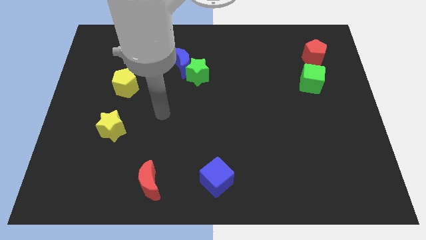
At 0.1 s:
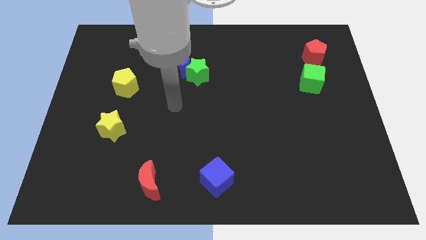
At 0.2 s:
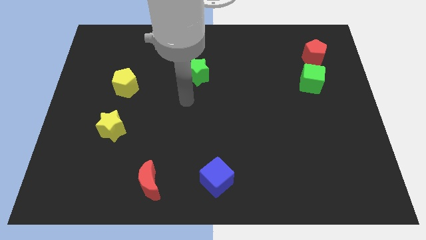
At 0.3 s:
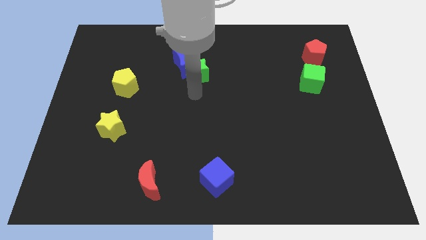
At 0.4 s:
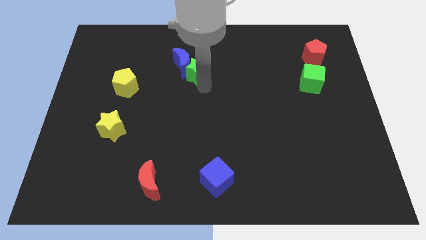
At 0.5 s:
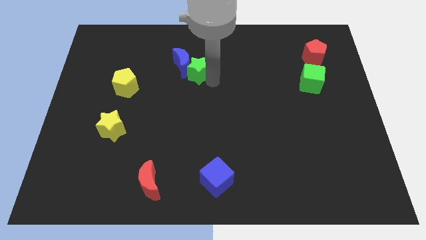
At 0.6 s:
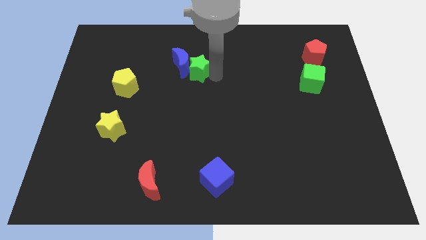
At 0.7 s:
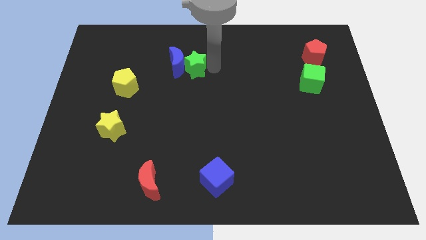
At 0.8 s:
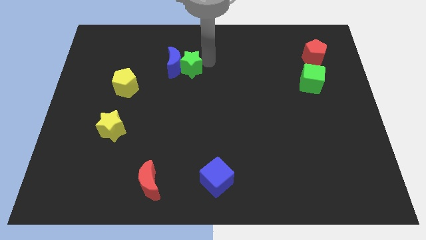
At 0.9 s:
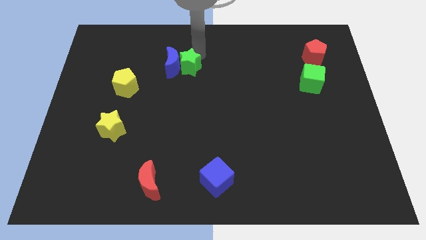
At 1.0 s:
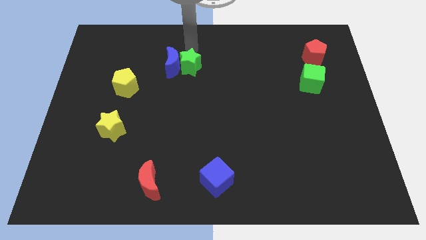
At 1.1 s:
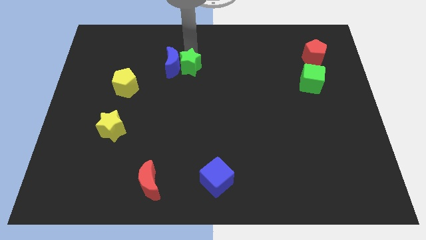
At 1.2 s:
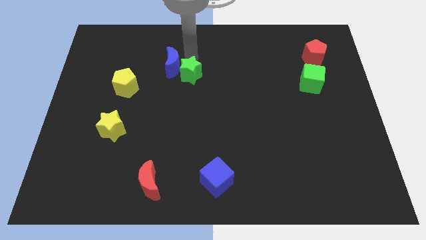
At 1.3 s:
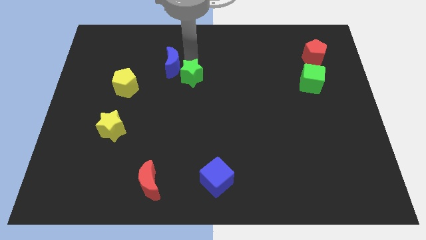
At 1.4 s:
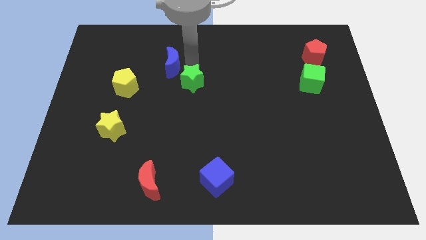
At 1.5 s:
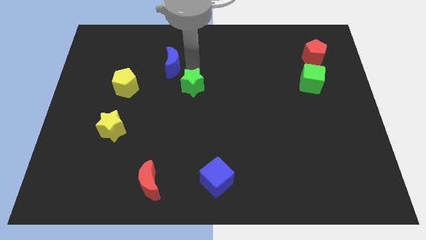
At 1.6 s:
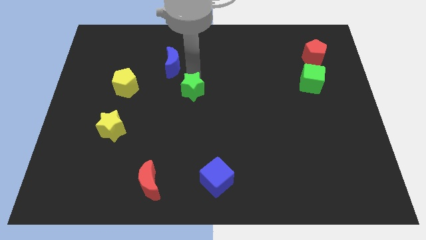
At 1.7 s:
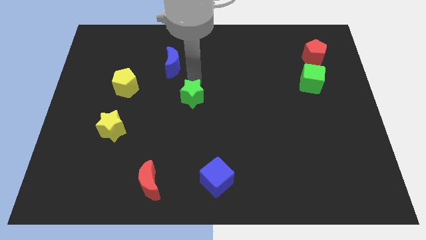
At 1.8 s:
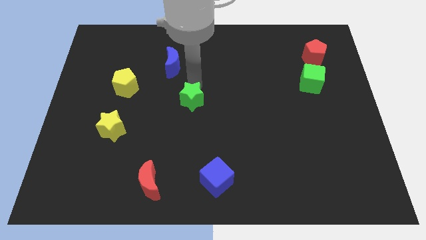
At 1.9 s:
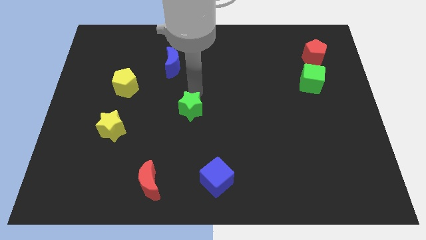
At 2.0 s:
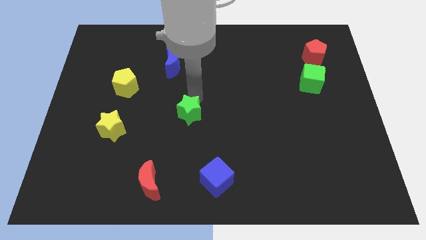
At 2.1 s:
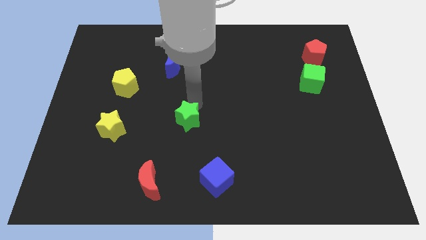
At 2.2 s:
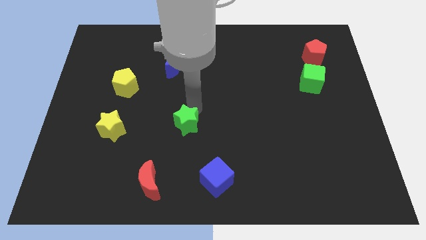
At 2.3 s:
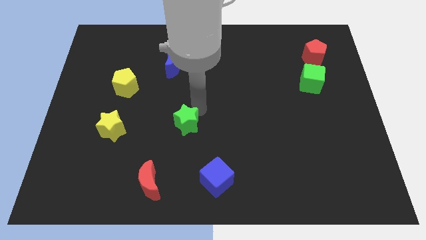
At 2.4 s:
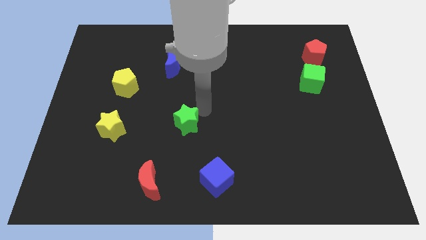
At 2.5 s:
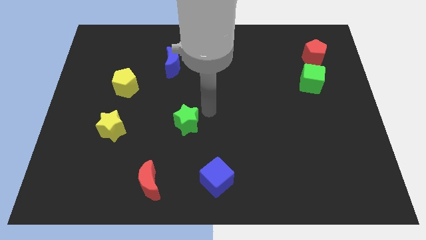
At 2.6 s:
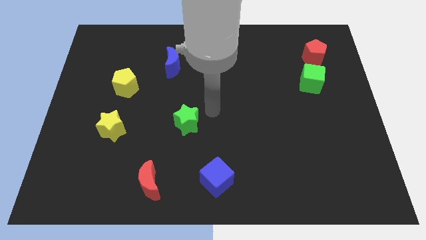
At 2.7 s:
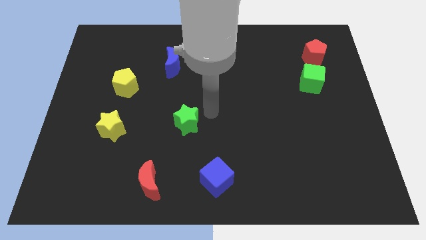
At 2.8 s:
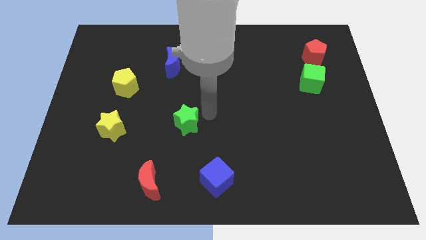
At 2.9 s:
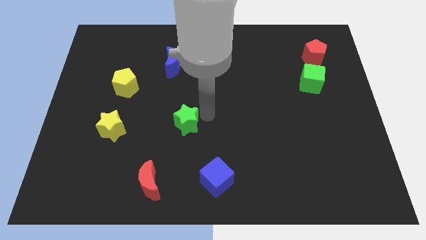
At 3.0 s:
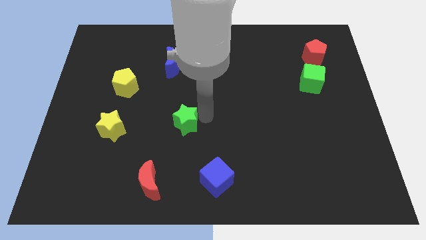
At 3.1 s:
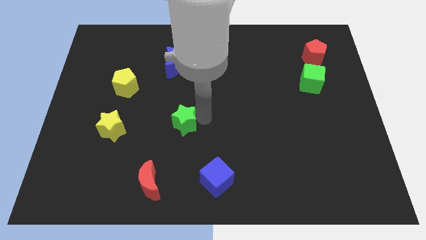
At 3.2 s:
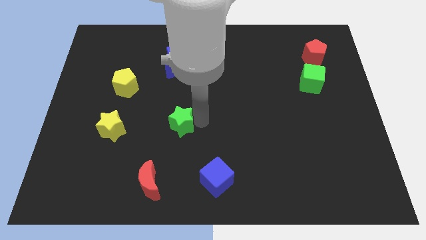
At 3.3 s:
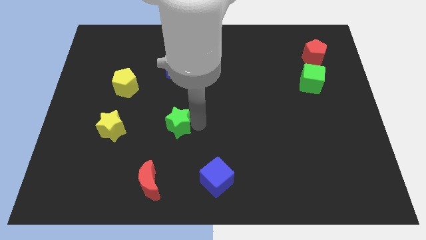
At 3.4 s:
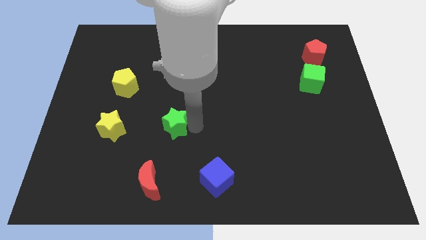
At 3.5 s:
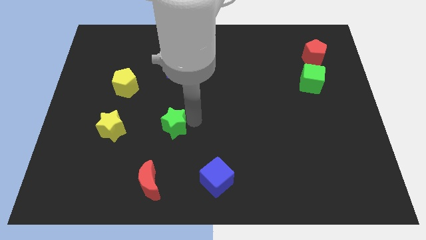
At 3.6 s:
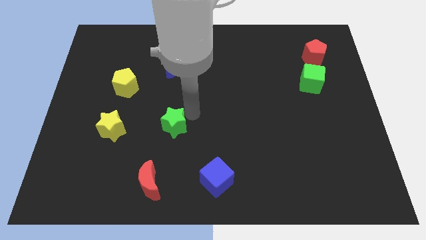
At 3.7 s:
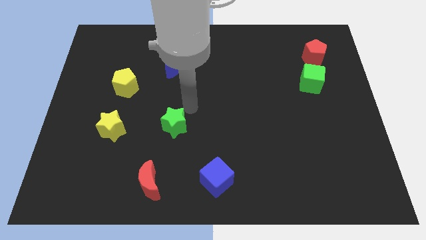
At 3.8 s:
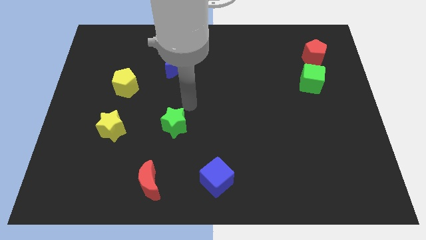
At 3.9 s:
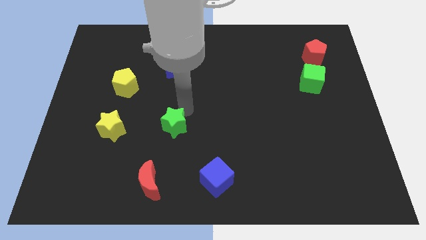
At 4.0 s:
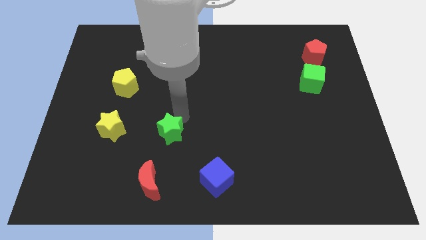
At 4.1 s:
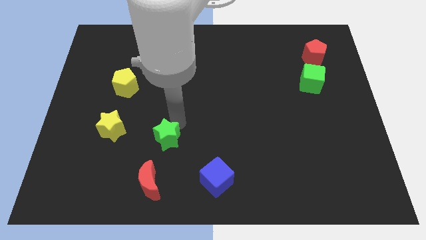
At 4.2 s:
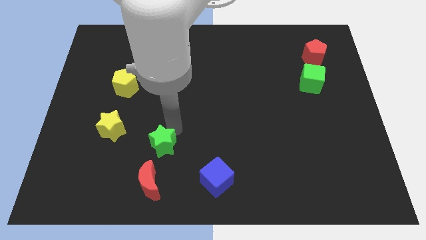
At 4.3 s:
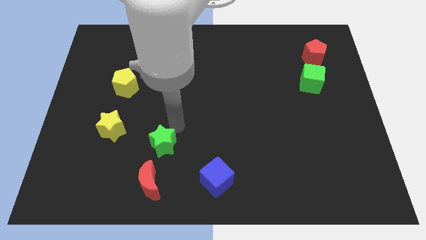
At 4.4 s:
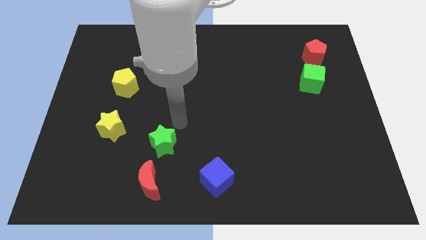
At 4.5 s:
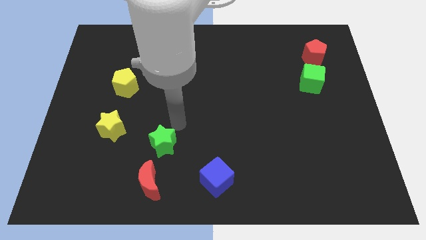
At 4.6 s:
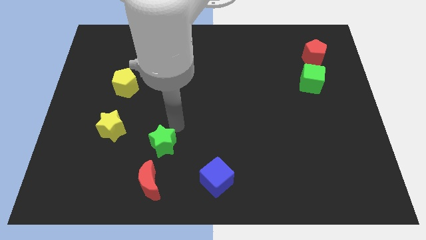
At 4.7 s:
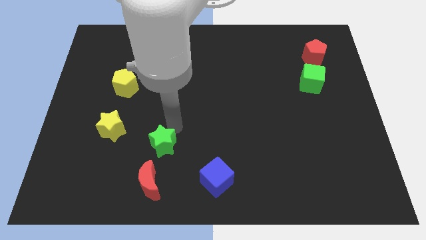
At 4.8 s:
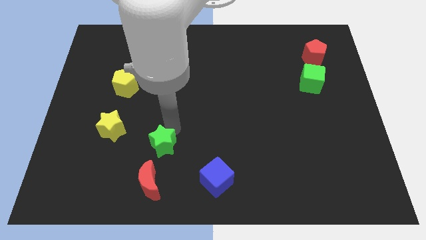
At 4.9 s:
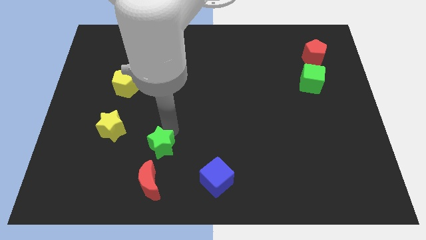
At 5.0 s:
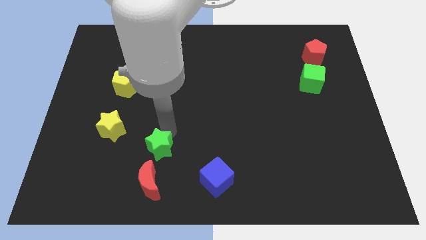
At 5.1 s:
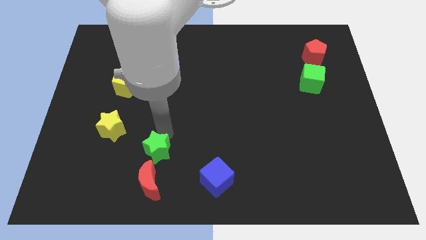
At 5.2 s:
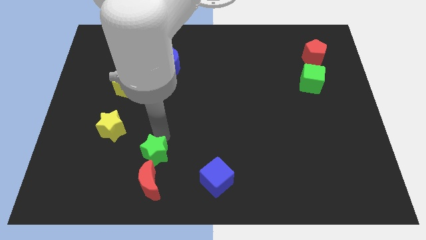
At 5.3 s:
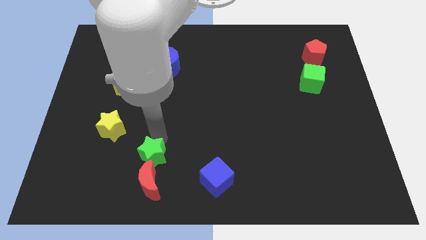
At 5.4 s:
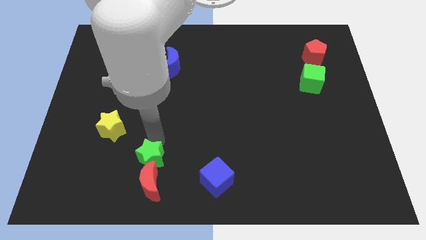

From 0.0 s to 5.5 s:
move the green star to the red moon

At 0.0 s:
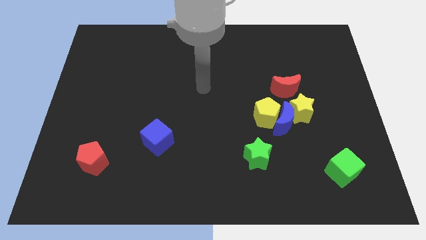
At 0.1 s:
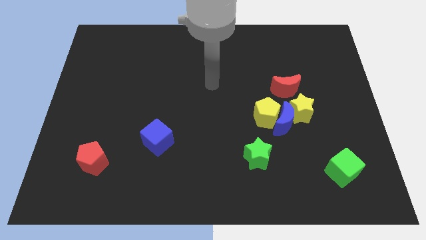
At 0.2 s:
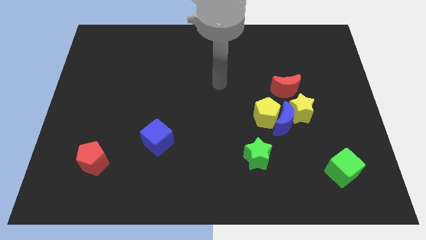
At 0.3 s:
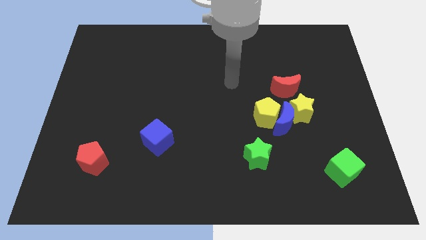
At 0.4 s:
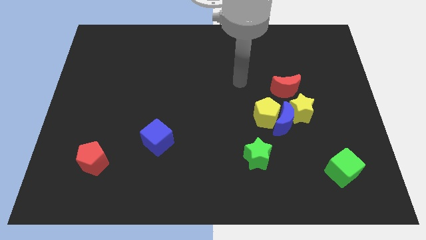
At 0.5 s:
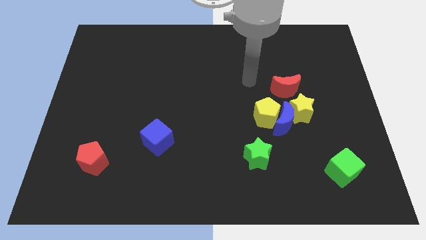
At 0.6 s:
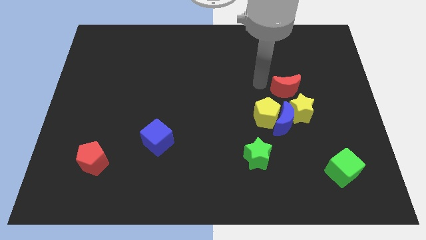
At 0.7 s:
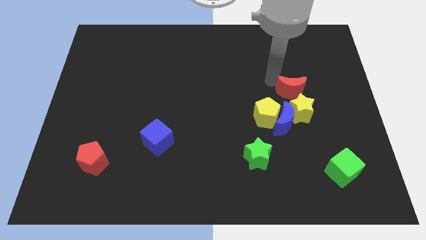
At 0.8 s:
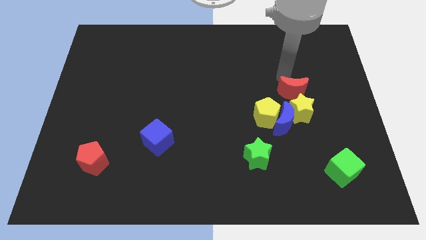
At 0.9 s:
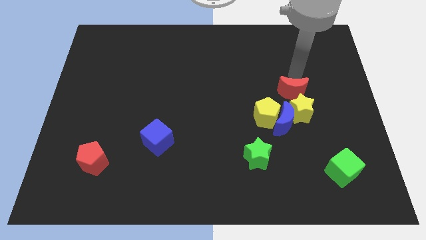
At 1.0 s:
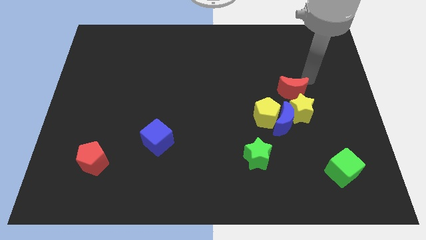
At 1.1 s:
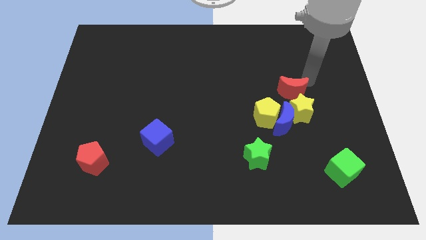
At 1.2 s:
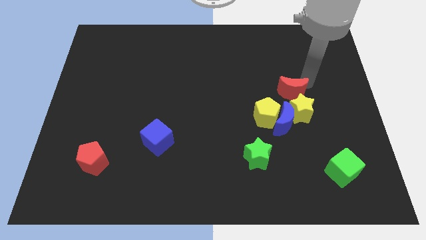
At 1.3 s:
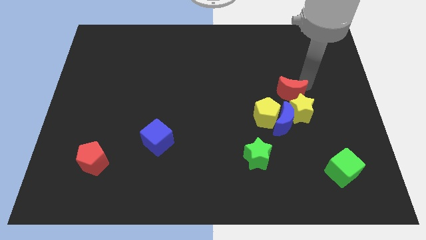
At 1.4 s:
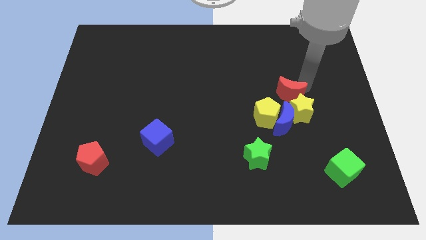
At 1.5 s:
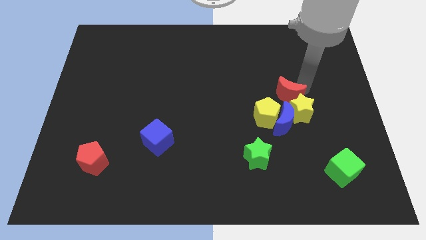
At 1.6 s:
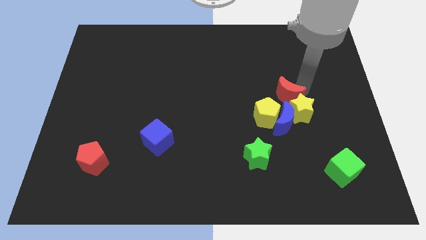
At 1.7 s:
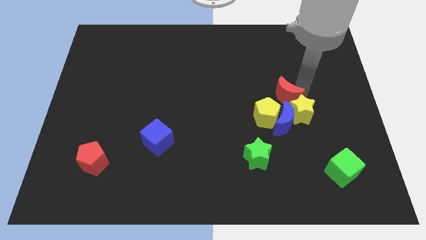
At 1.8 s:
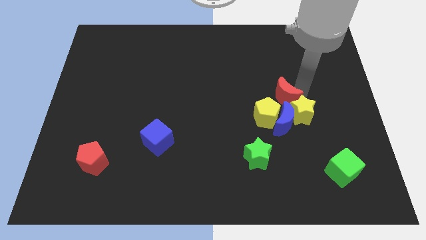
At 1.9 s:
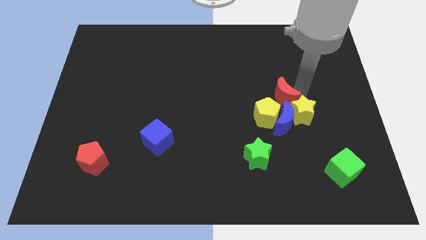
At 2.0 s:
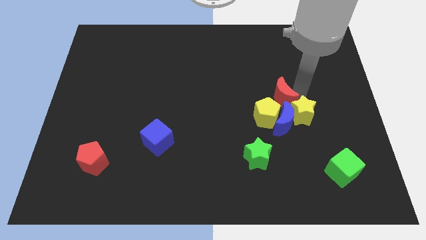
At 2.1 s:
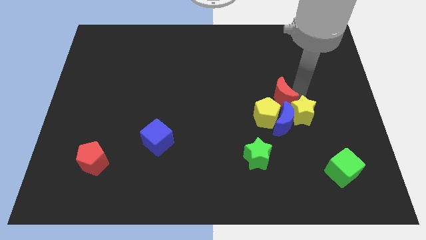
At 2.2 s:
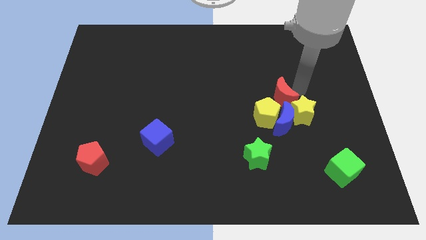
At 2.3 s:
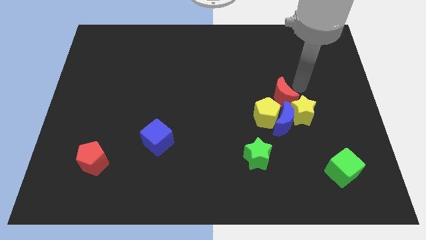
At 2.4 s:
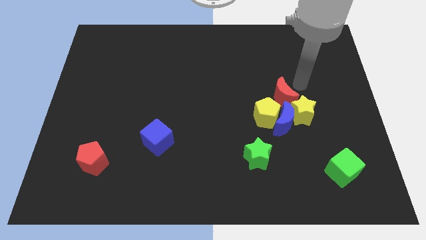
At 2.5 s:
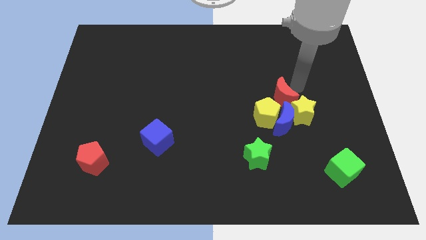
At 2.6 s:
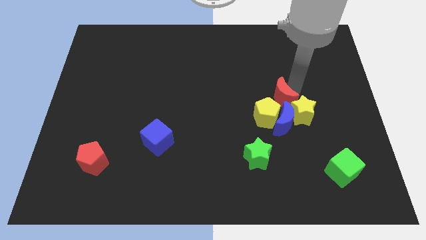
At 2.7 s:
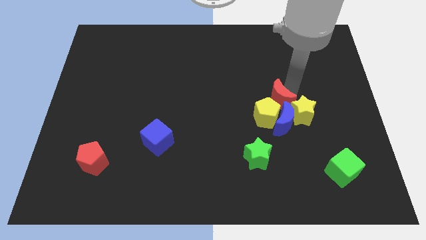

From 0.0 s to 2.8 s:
slide the red moon towards the yellow pentagon
